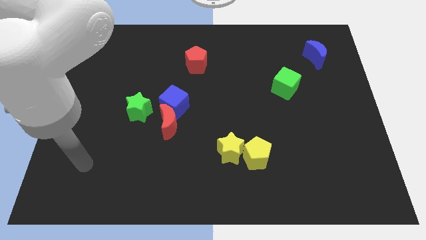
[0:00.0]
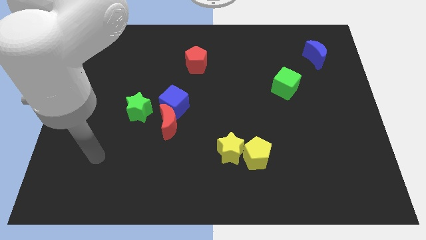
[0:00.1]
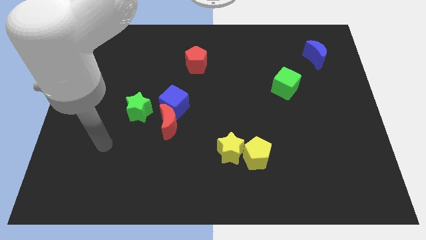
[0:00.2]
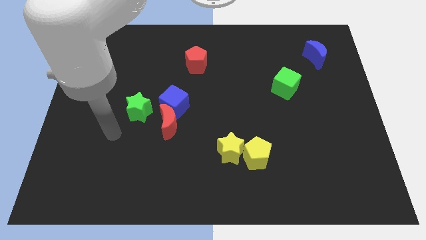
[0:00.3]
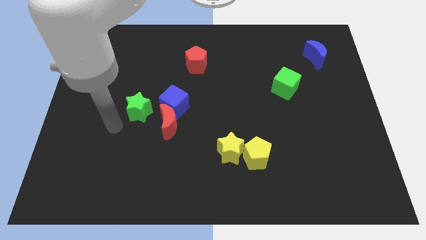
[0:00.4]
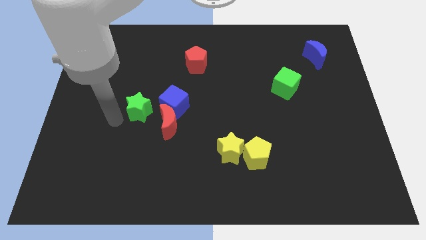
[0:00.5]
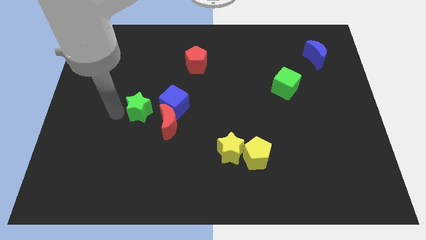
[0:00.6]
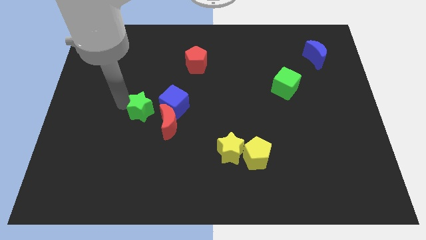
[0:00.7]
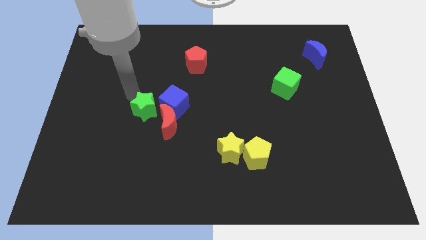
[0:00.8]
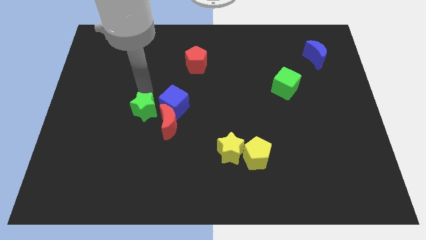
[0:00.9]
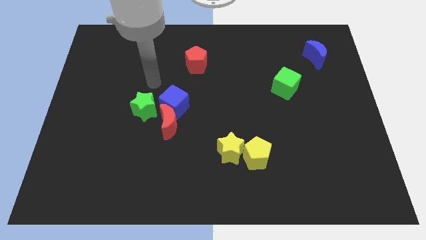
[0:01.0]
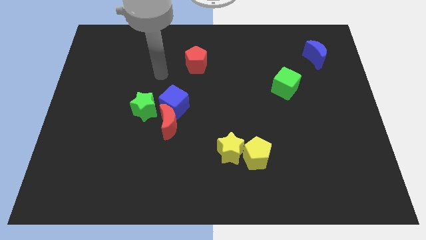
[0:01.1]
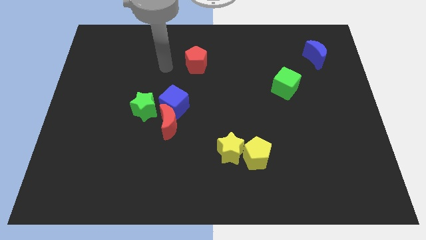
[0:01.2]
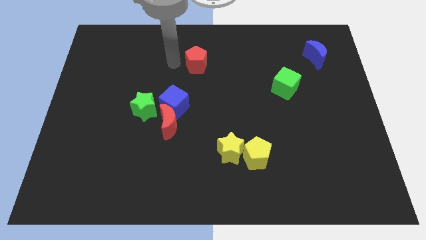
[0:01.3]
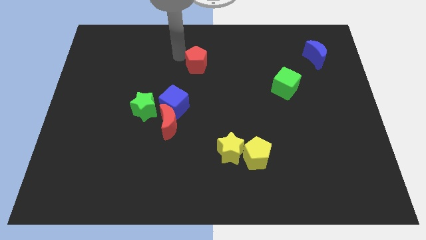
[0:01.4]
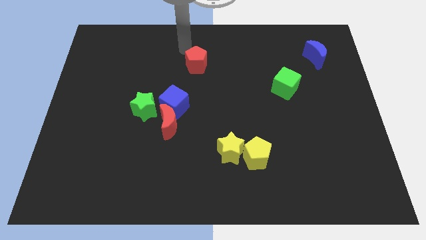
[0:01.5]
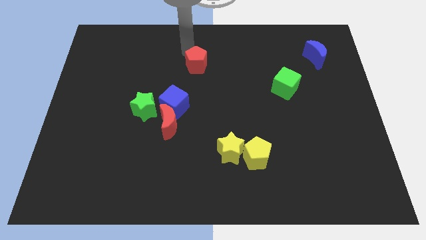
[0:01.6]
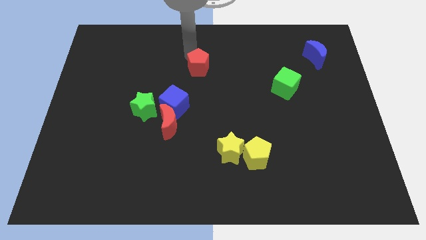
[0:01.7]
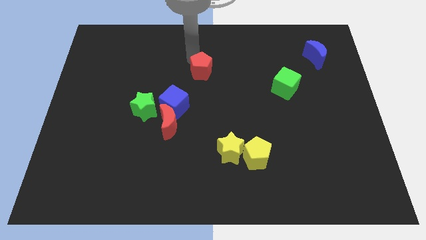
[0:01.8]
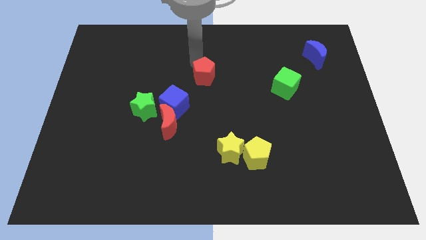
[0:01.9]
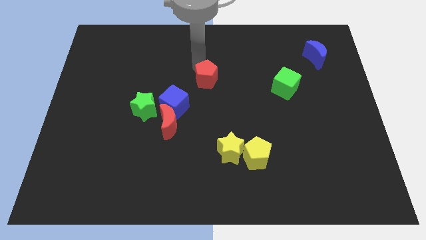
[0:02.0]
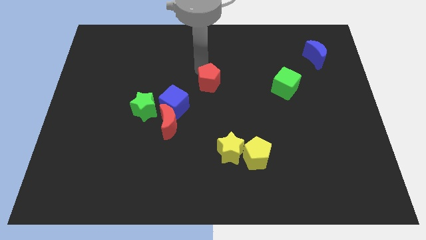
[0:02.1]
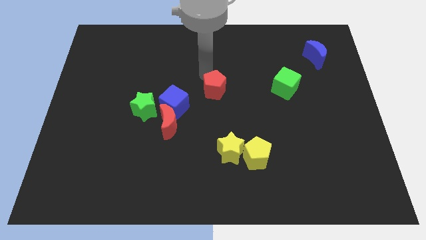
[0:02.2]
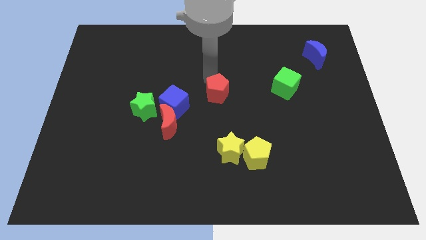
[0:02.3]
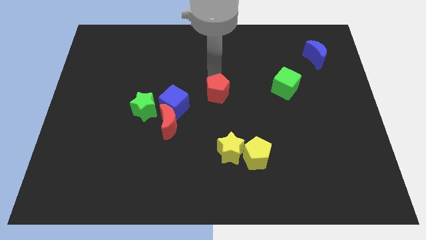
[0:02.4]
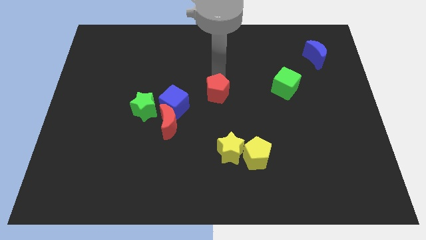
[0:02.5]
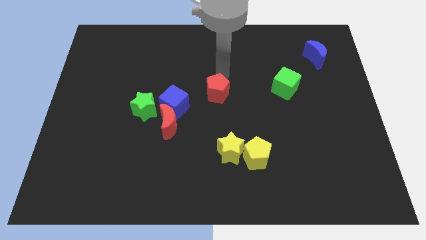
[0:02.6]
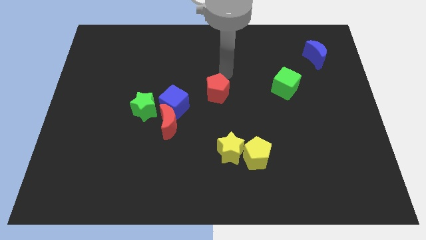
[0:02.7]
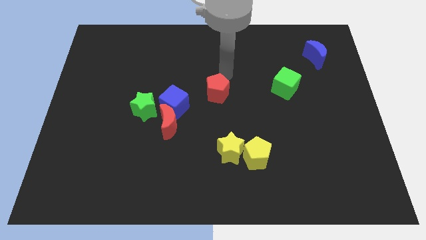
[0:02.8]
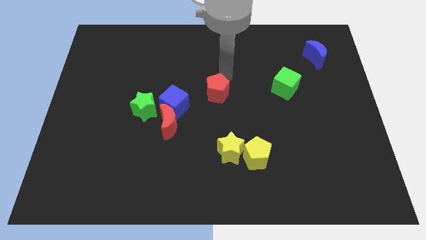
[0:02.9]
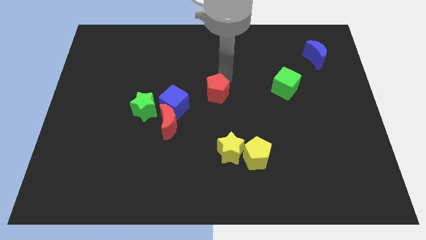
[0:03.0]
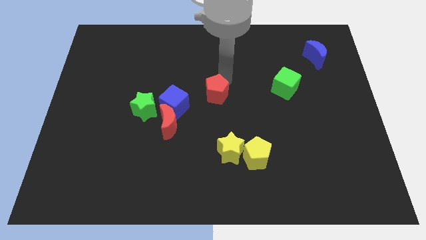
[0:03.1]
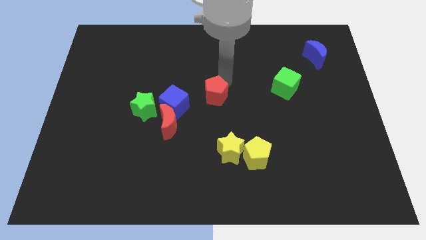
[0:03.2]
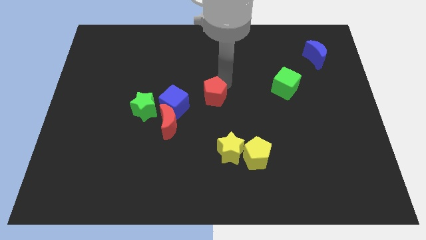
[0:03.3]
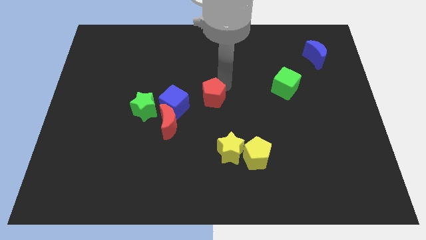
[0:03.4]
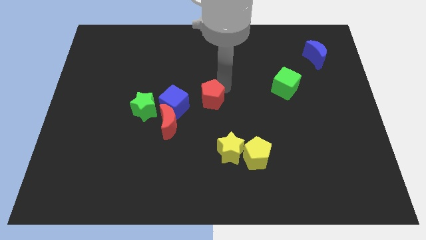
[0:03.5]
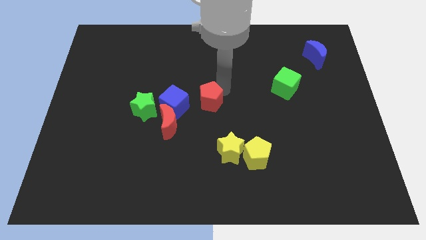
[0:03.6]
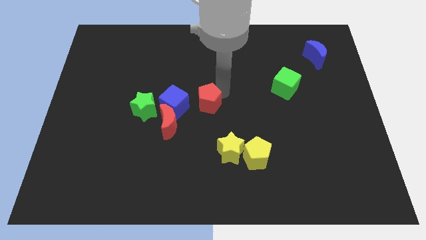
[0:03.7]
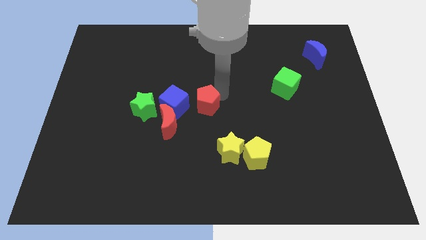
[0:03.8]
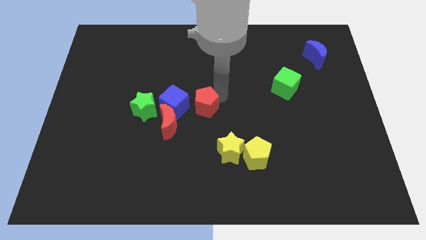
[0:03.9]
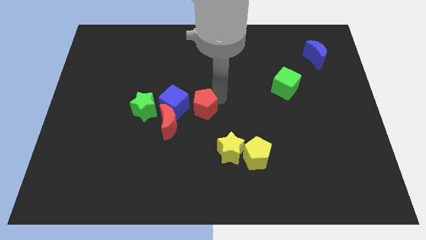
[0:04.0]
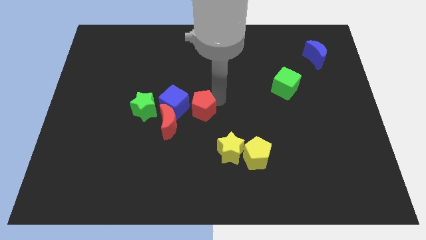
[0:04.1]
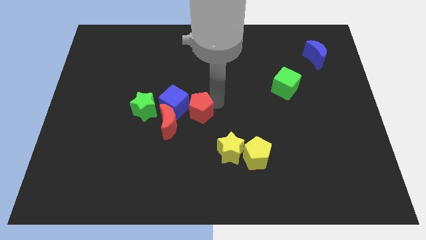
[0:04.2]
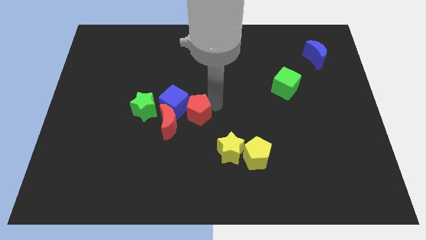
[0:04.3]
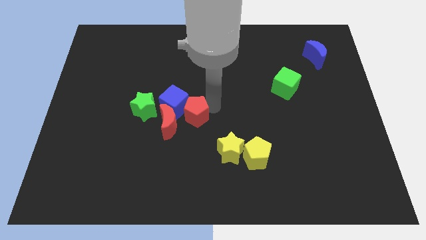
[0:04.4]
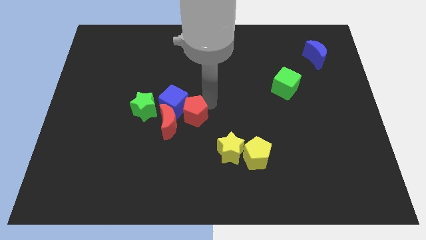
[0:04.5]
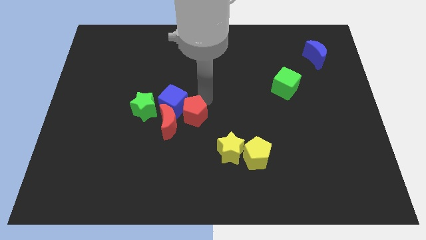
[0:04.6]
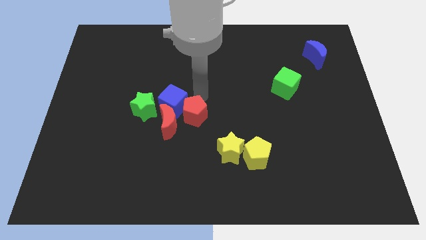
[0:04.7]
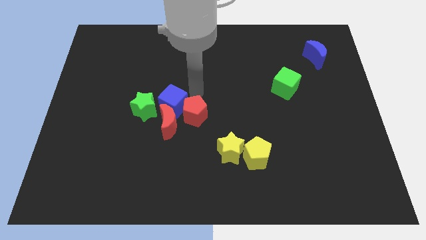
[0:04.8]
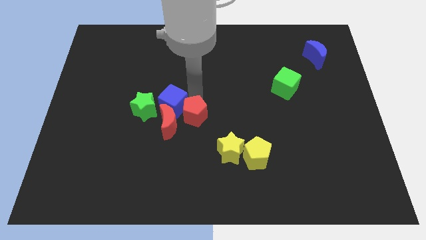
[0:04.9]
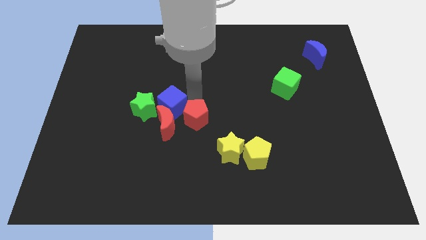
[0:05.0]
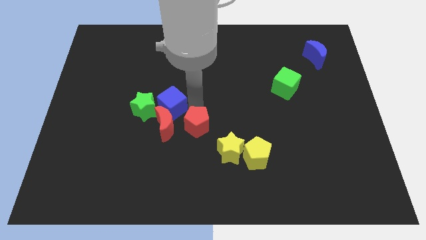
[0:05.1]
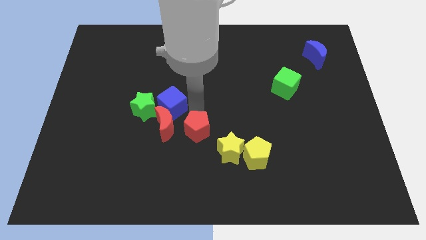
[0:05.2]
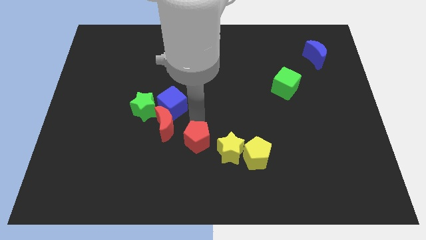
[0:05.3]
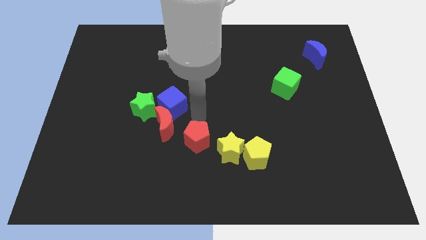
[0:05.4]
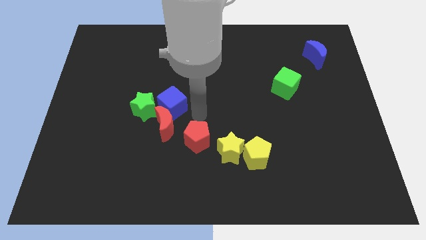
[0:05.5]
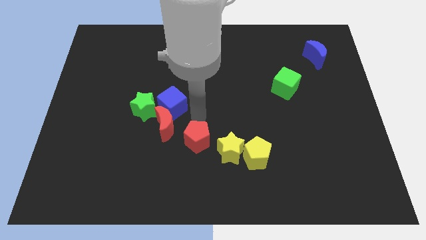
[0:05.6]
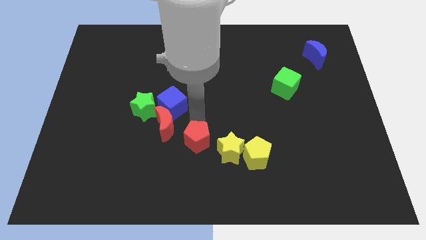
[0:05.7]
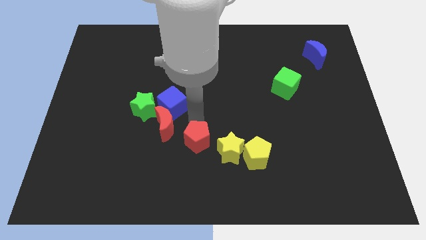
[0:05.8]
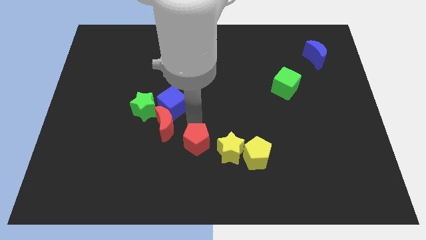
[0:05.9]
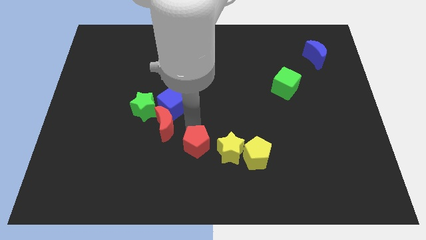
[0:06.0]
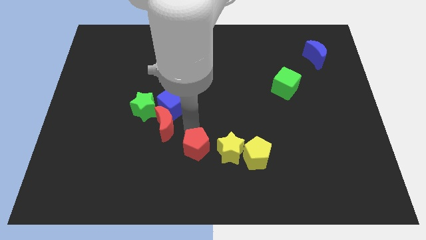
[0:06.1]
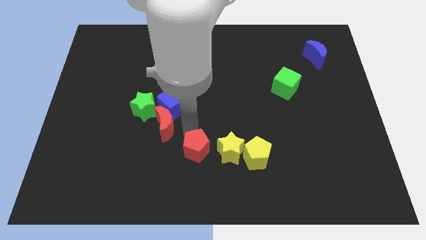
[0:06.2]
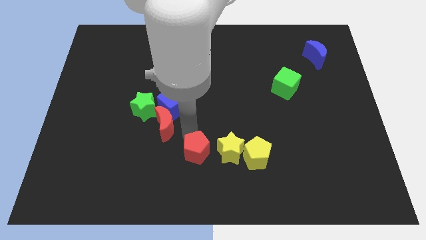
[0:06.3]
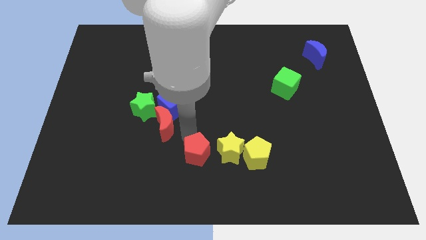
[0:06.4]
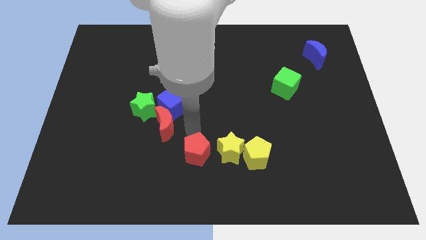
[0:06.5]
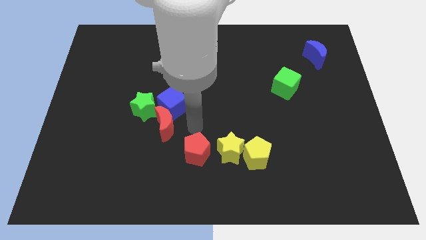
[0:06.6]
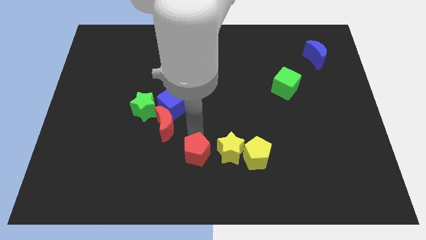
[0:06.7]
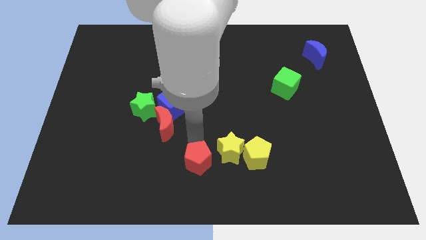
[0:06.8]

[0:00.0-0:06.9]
put the red pentagon to the bottom
